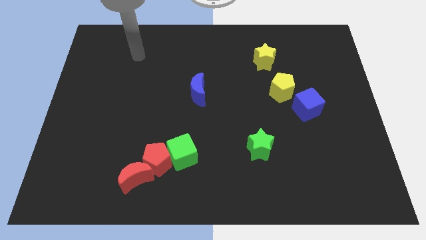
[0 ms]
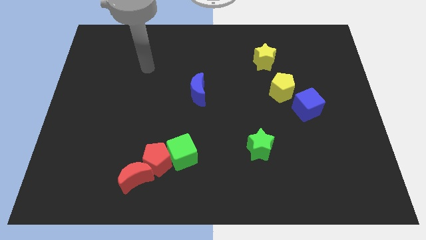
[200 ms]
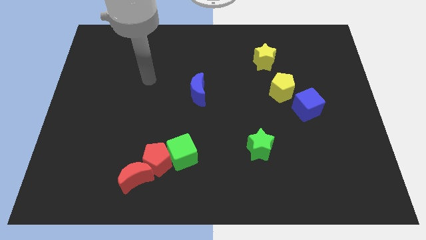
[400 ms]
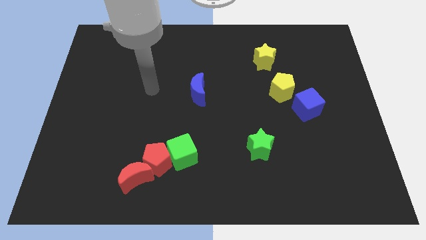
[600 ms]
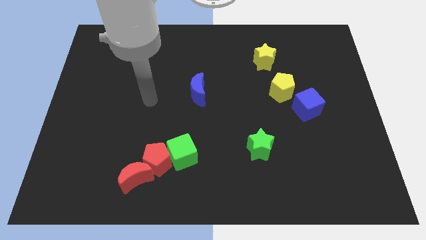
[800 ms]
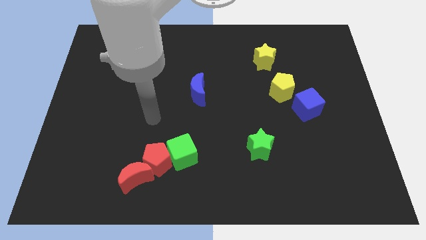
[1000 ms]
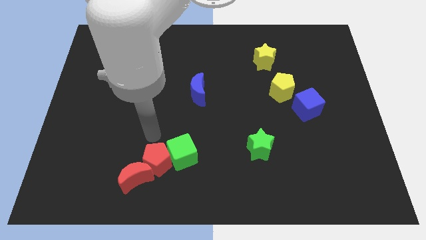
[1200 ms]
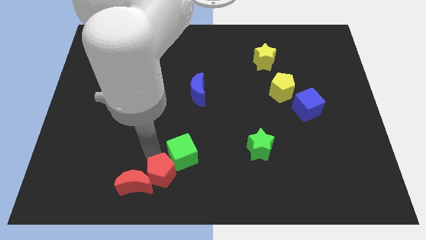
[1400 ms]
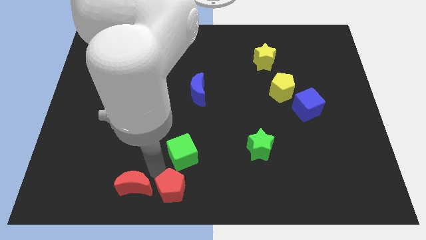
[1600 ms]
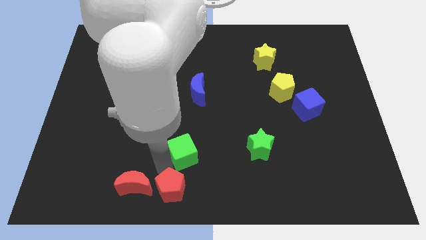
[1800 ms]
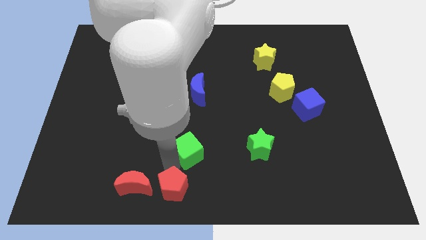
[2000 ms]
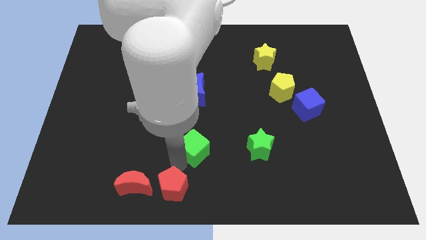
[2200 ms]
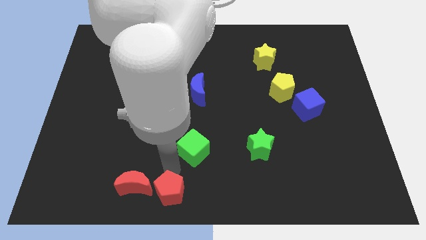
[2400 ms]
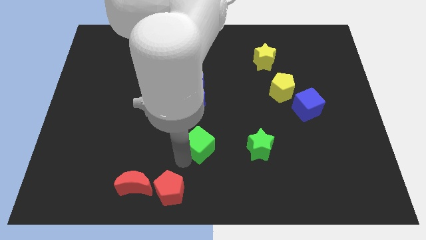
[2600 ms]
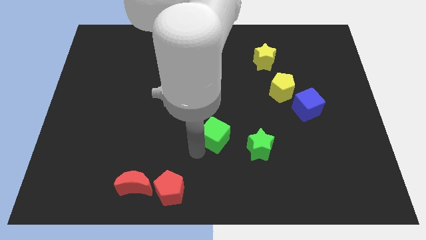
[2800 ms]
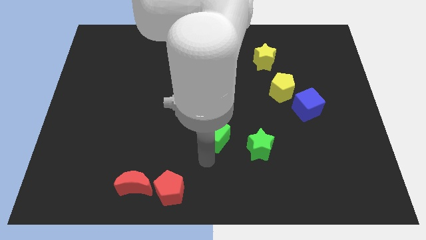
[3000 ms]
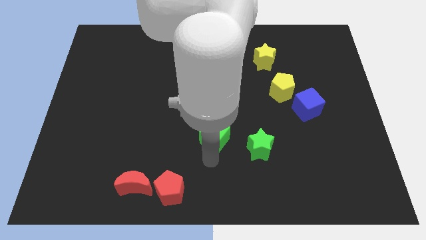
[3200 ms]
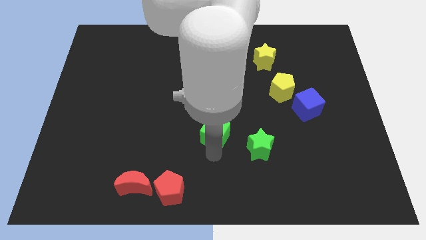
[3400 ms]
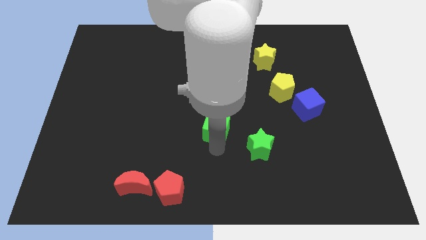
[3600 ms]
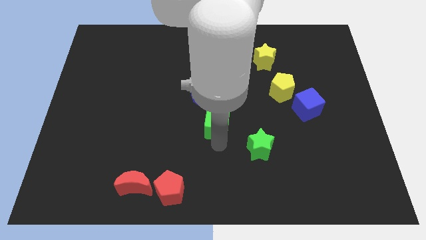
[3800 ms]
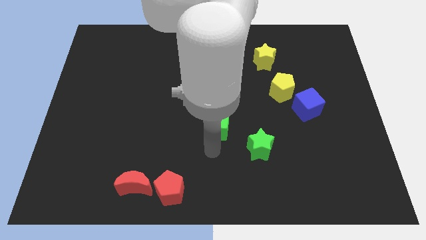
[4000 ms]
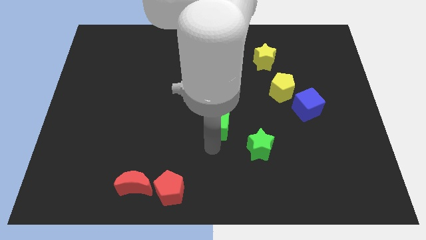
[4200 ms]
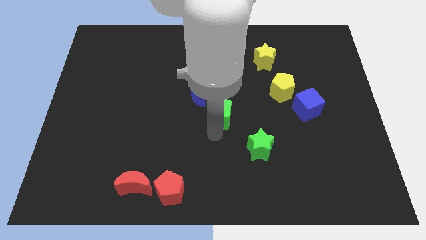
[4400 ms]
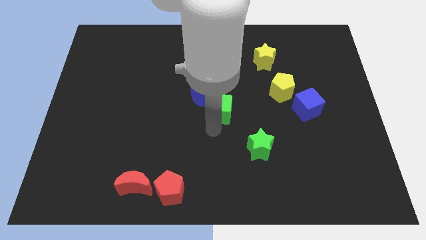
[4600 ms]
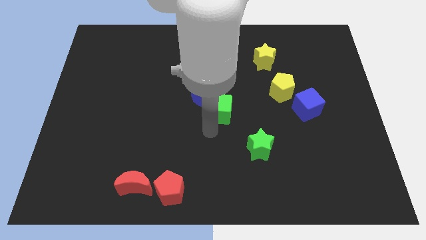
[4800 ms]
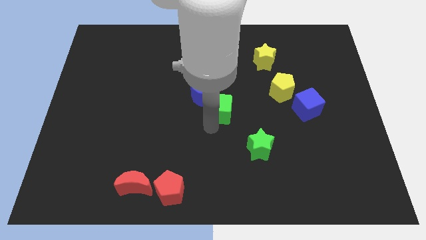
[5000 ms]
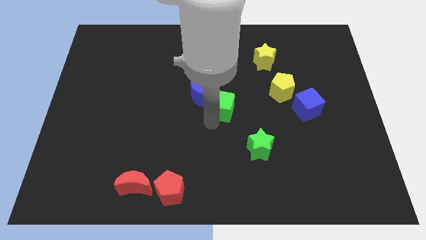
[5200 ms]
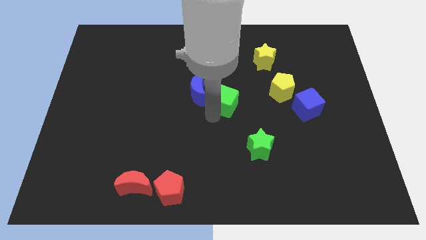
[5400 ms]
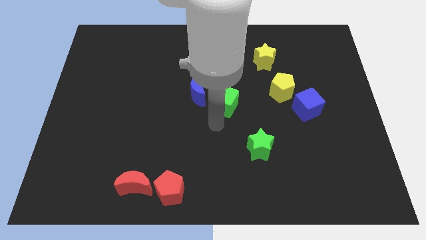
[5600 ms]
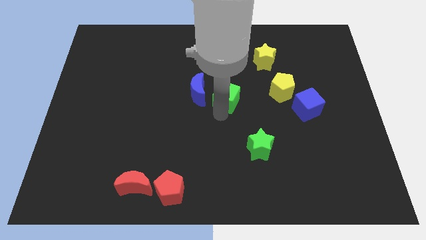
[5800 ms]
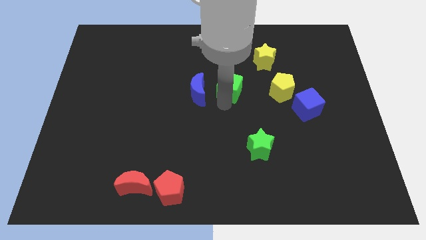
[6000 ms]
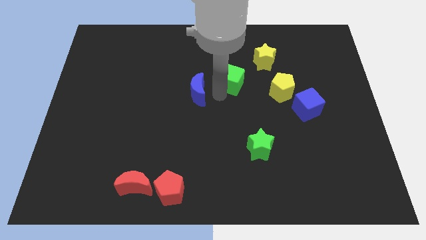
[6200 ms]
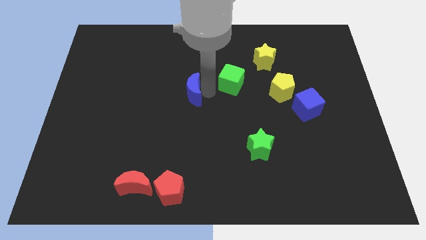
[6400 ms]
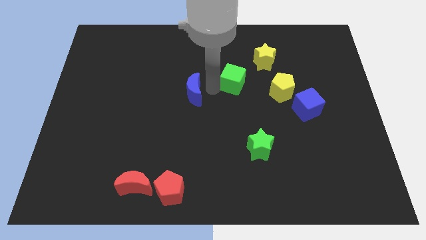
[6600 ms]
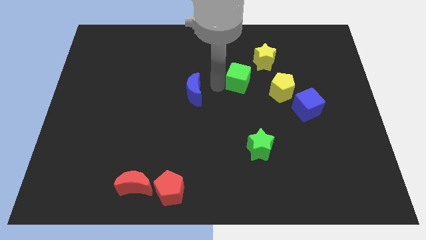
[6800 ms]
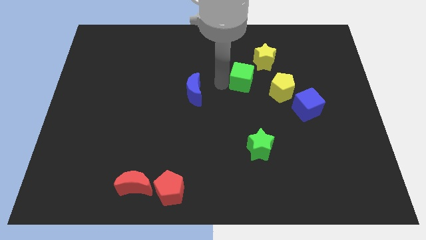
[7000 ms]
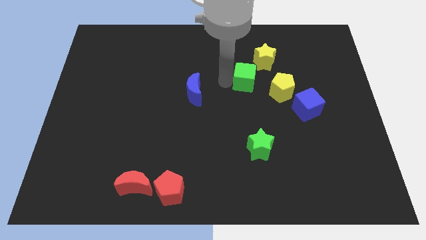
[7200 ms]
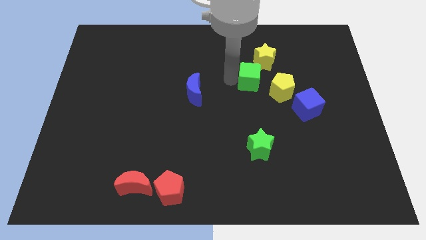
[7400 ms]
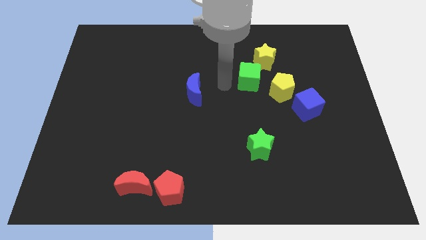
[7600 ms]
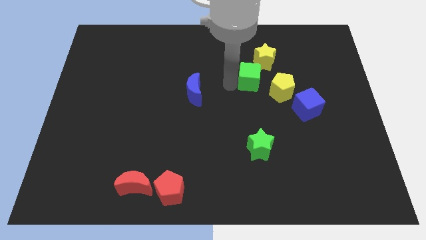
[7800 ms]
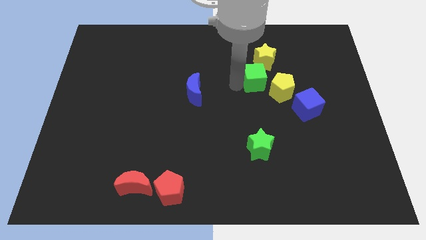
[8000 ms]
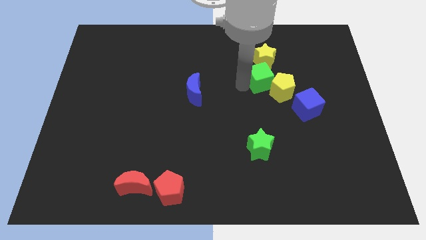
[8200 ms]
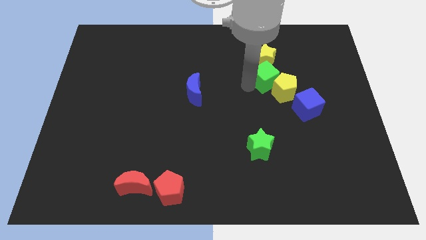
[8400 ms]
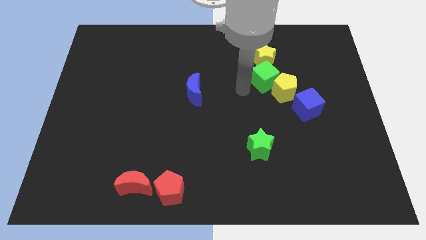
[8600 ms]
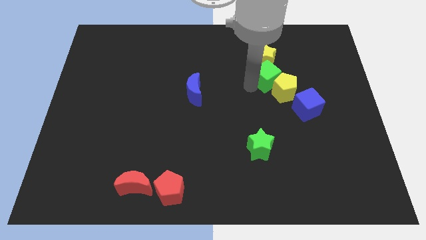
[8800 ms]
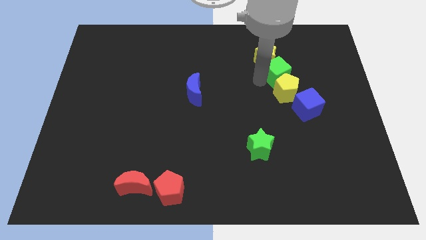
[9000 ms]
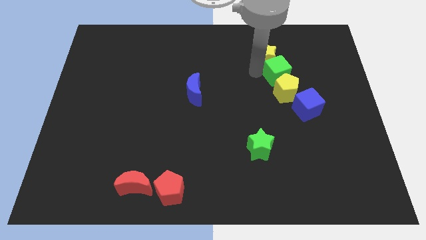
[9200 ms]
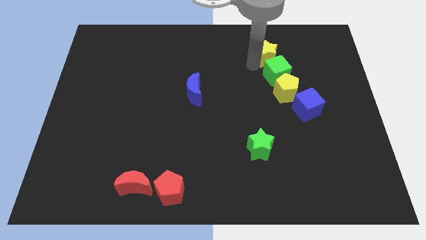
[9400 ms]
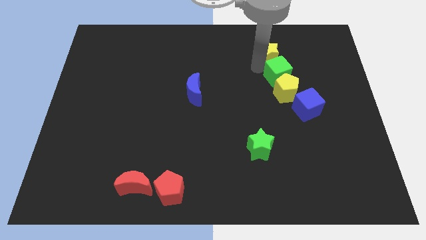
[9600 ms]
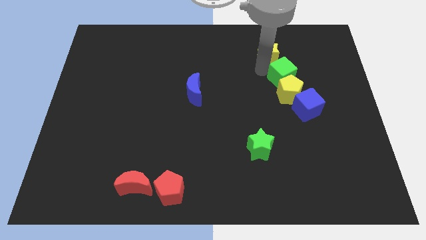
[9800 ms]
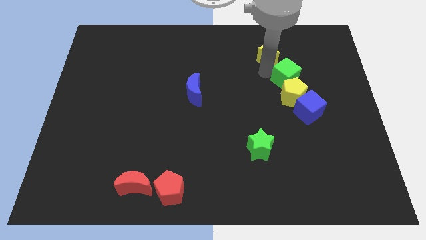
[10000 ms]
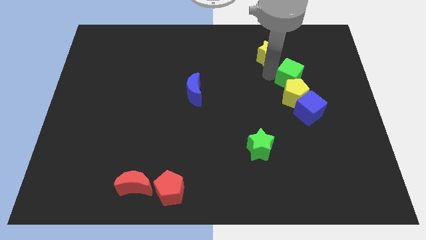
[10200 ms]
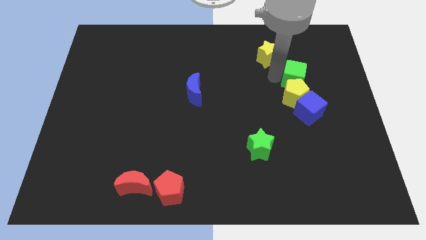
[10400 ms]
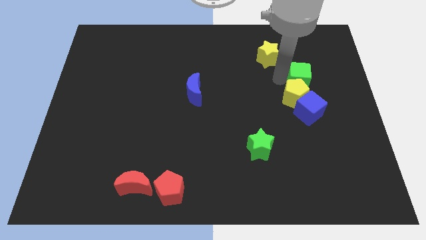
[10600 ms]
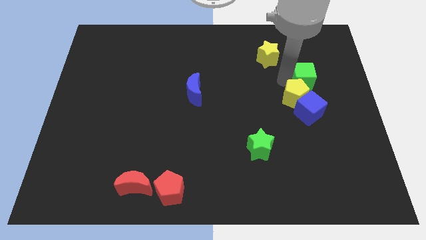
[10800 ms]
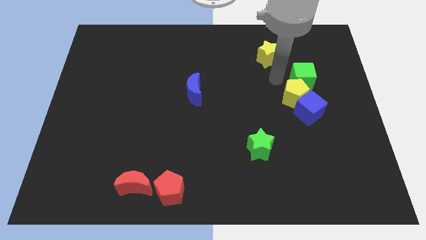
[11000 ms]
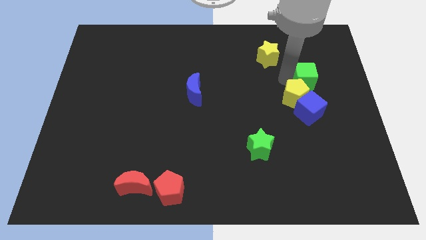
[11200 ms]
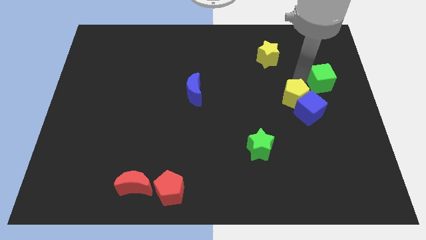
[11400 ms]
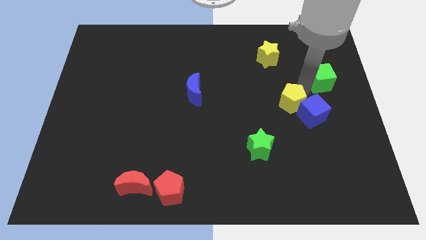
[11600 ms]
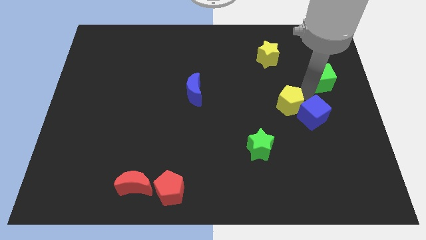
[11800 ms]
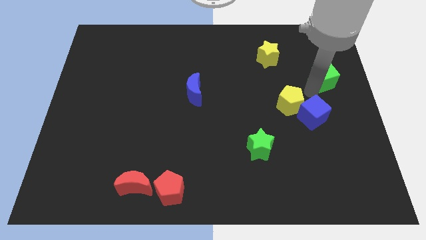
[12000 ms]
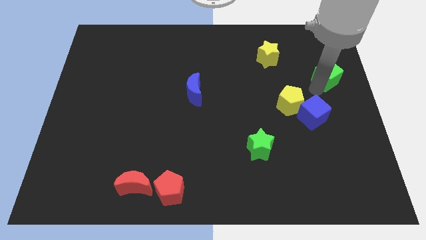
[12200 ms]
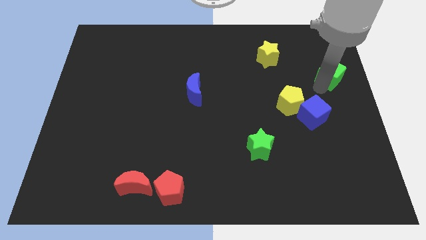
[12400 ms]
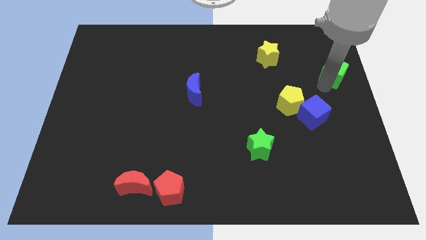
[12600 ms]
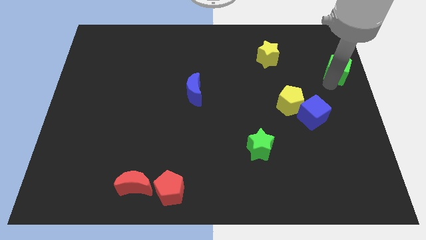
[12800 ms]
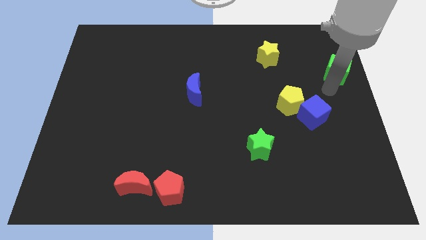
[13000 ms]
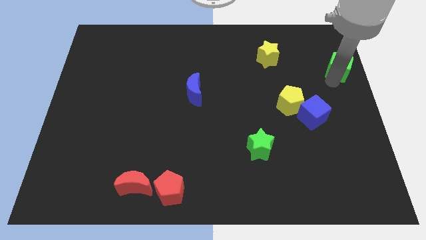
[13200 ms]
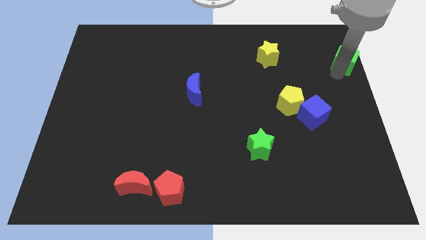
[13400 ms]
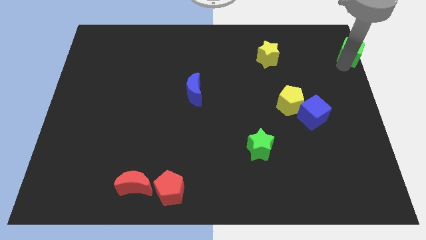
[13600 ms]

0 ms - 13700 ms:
slide the green cube to the top right of the board

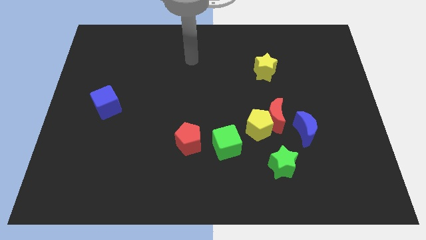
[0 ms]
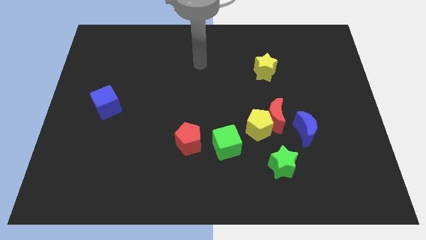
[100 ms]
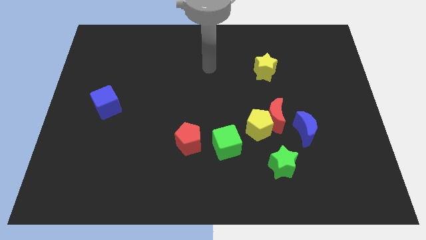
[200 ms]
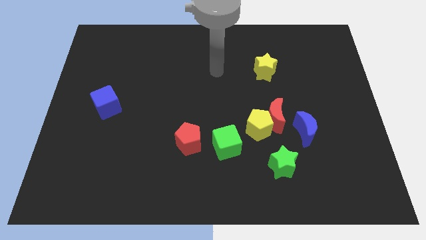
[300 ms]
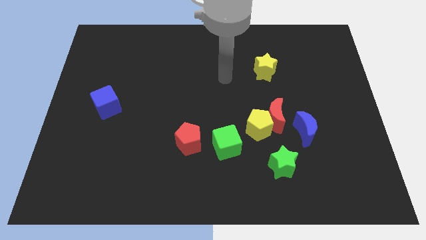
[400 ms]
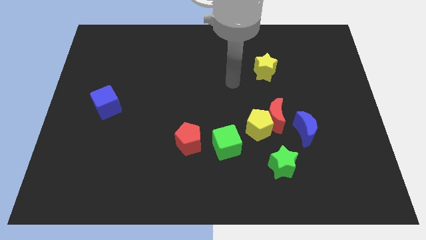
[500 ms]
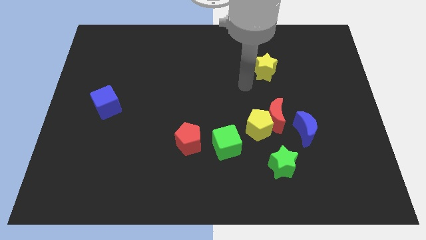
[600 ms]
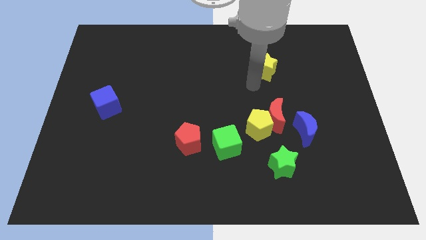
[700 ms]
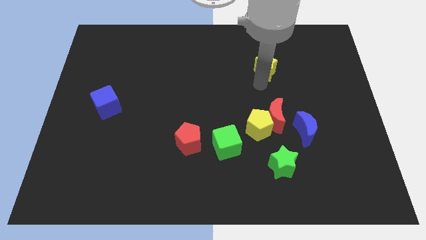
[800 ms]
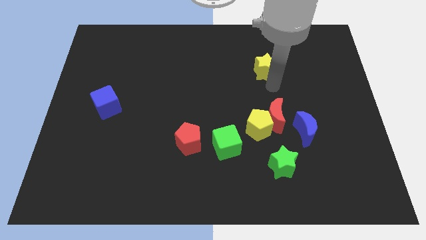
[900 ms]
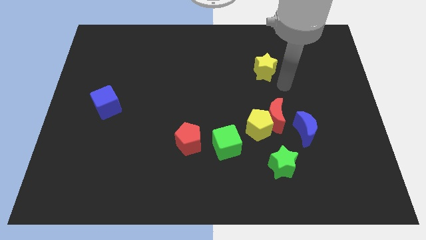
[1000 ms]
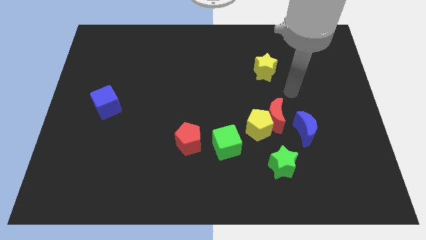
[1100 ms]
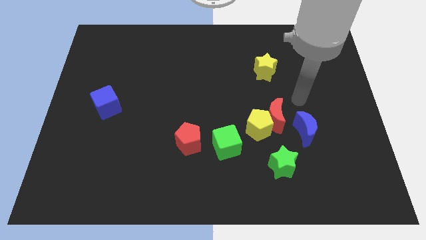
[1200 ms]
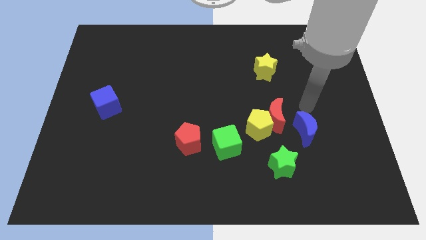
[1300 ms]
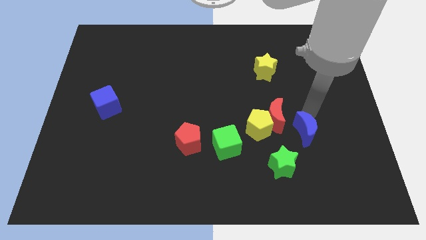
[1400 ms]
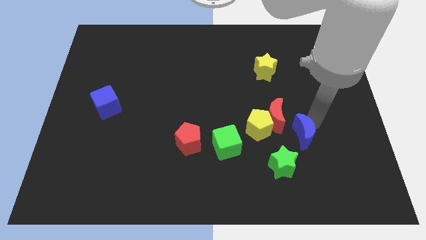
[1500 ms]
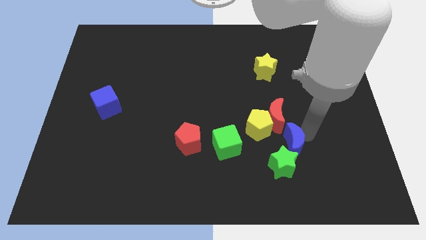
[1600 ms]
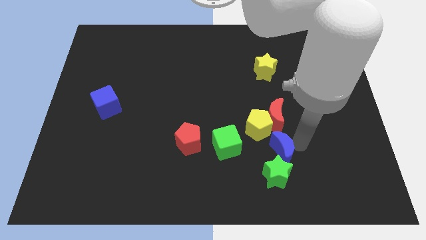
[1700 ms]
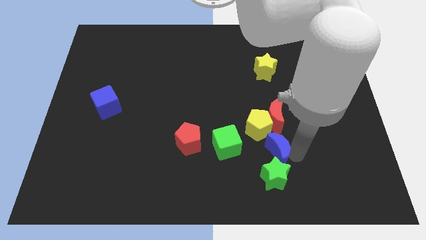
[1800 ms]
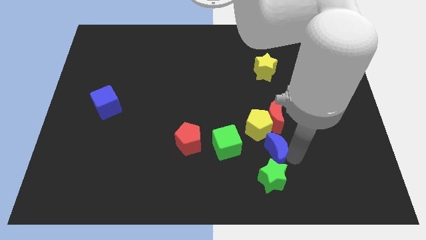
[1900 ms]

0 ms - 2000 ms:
push the green star to the bottom
